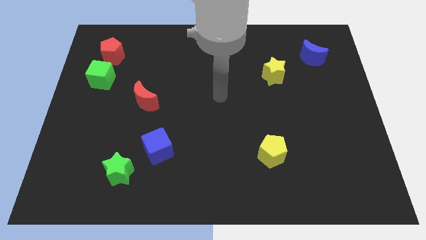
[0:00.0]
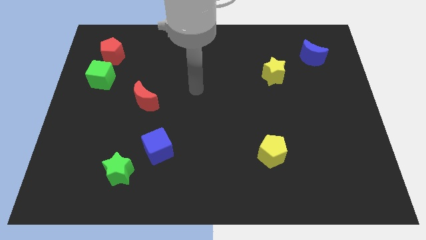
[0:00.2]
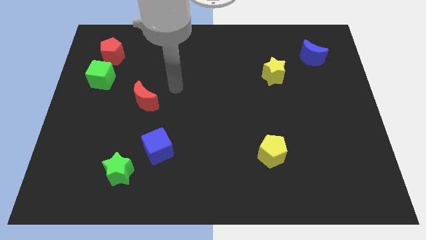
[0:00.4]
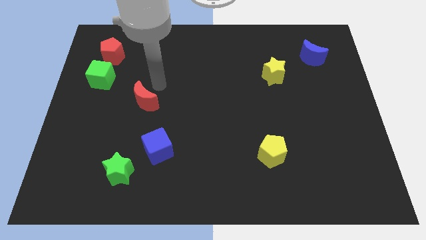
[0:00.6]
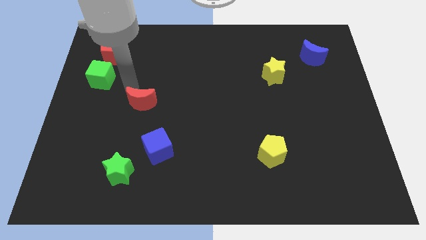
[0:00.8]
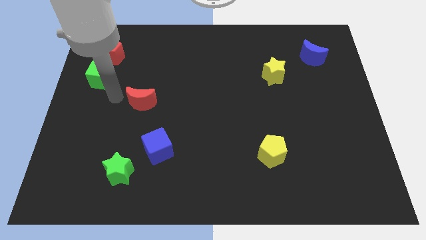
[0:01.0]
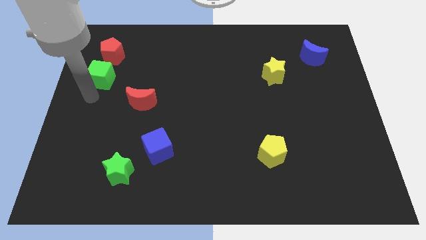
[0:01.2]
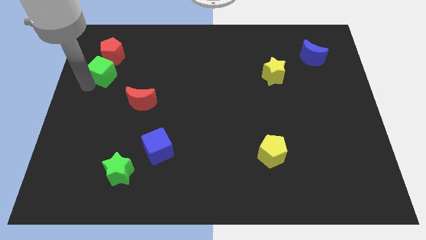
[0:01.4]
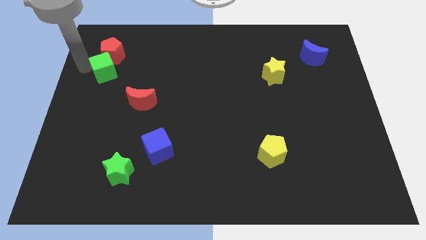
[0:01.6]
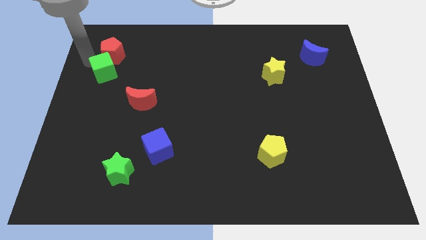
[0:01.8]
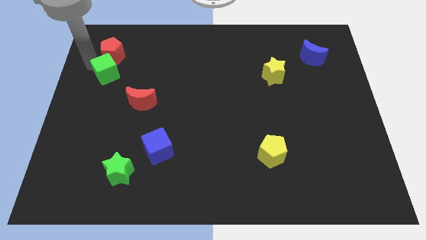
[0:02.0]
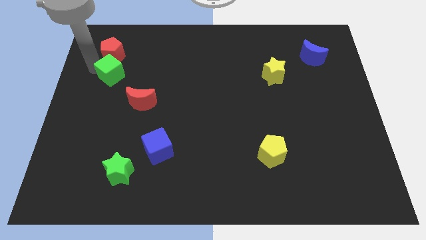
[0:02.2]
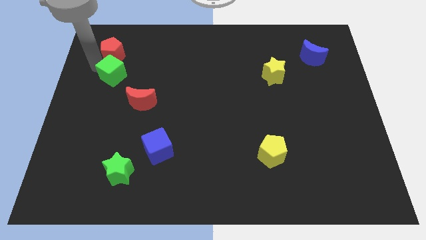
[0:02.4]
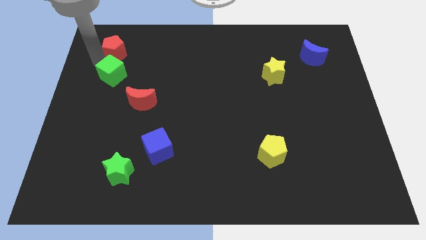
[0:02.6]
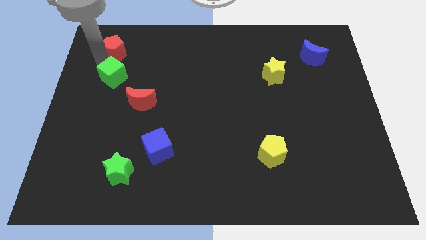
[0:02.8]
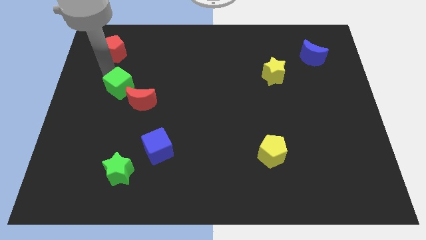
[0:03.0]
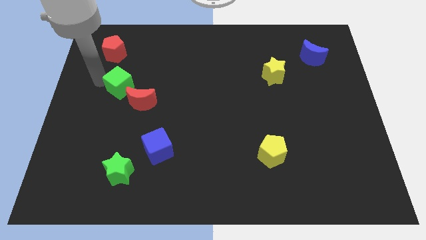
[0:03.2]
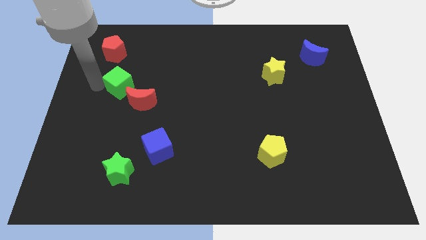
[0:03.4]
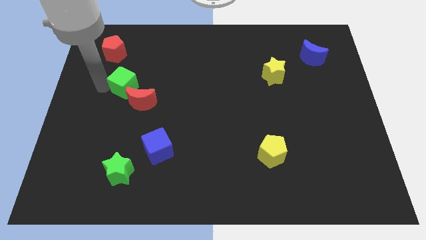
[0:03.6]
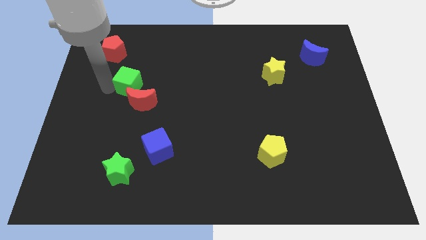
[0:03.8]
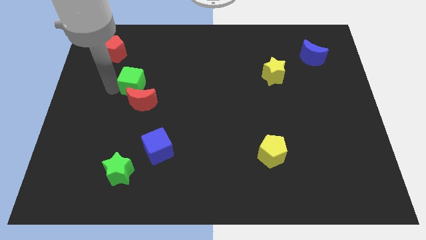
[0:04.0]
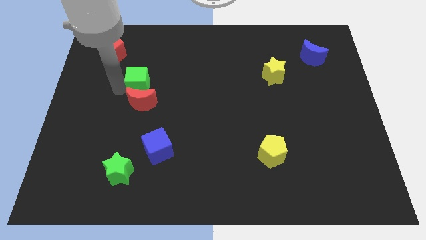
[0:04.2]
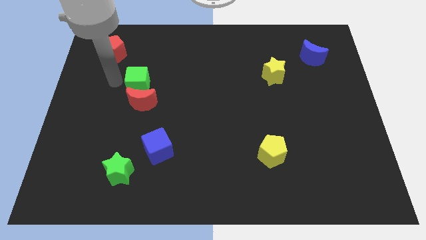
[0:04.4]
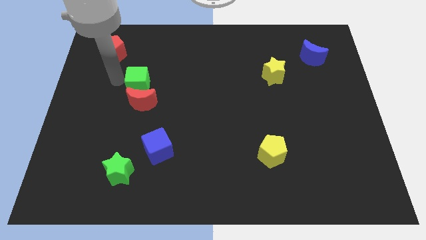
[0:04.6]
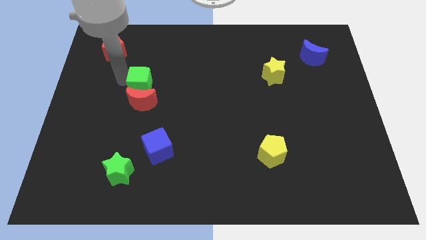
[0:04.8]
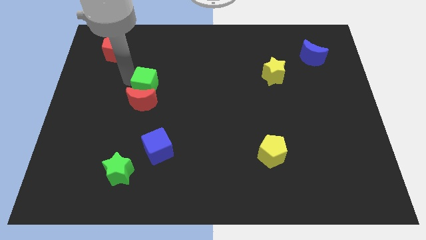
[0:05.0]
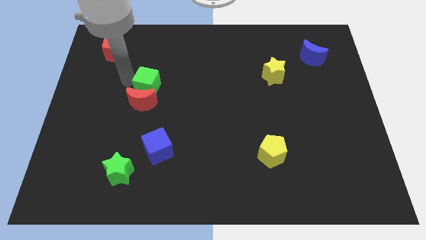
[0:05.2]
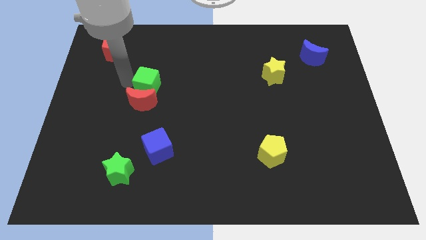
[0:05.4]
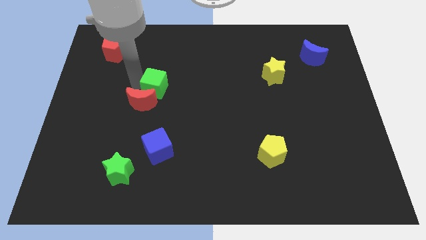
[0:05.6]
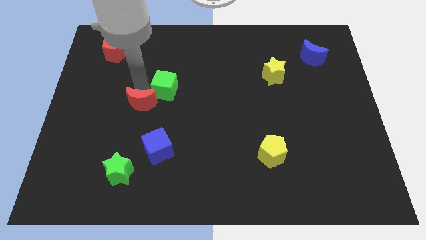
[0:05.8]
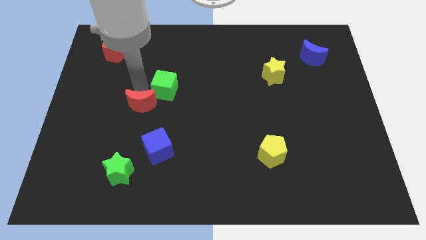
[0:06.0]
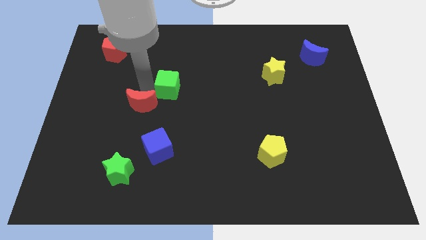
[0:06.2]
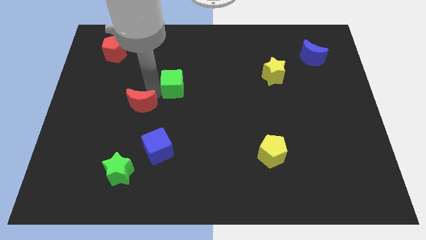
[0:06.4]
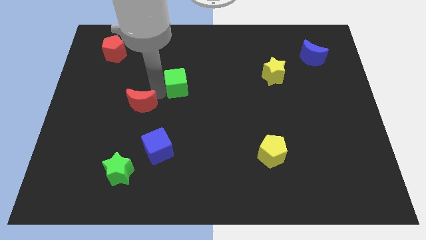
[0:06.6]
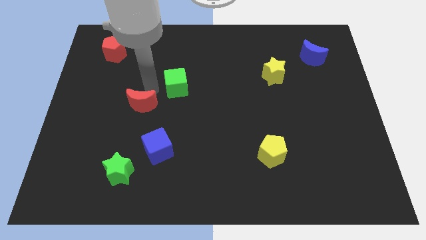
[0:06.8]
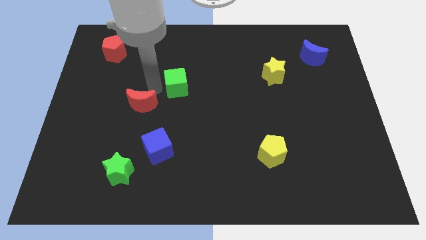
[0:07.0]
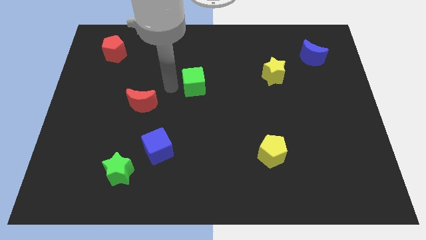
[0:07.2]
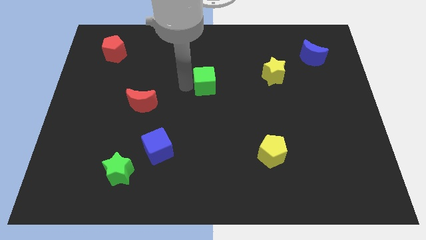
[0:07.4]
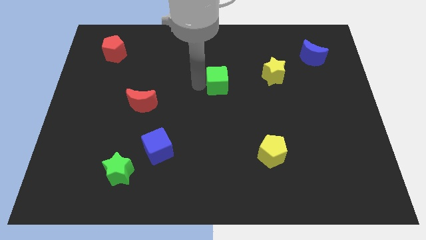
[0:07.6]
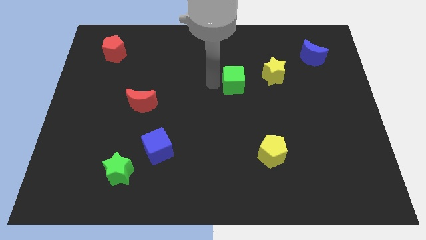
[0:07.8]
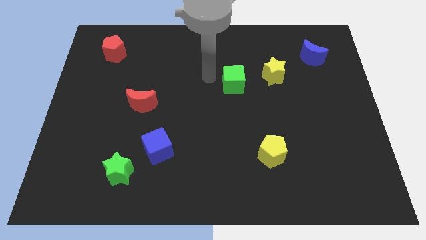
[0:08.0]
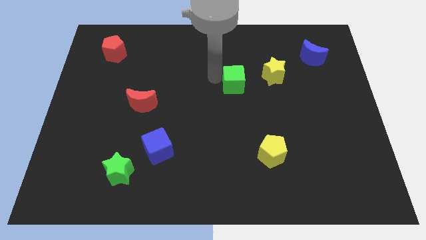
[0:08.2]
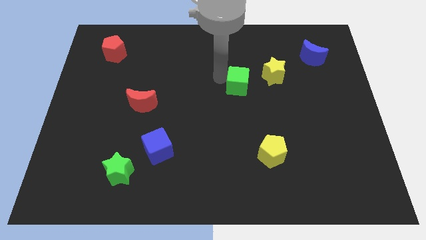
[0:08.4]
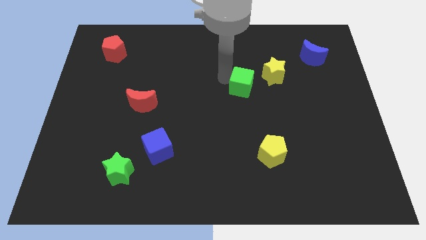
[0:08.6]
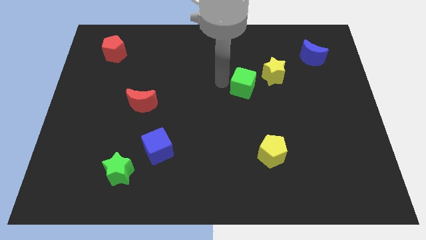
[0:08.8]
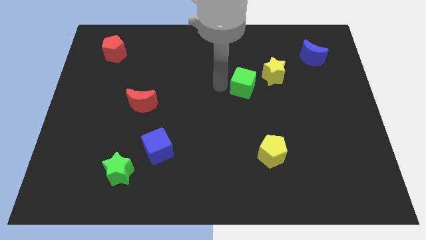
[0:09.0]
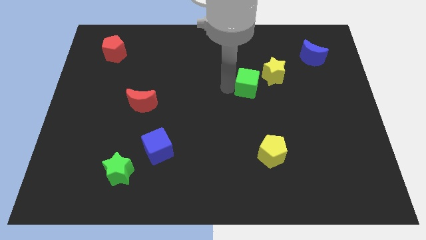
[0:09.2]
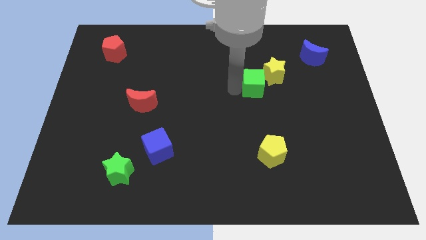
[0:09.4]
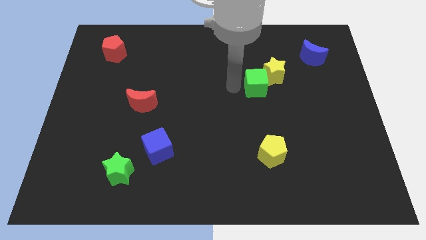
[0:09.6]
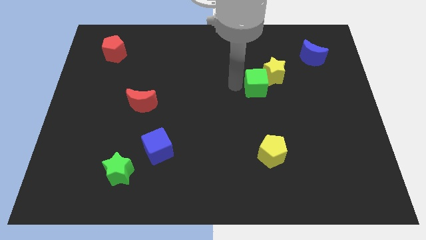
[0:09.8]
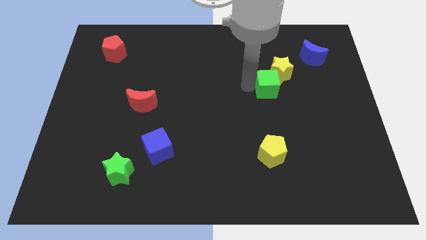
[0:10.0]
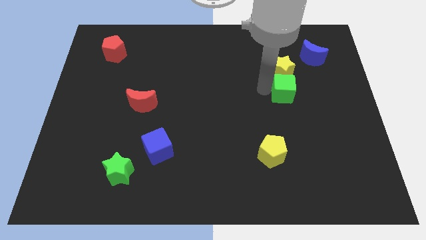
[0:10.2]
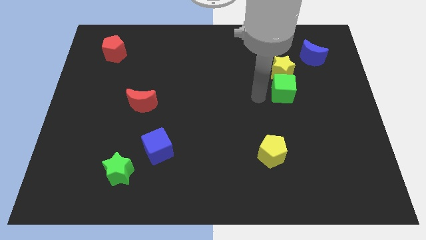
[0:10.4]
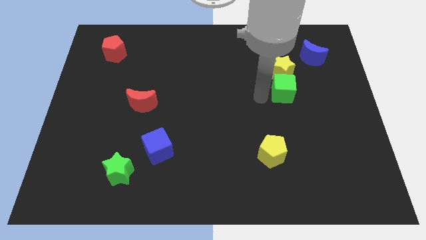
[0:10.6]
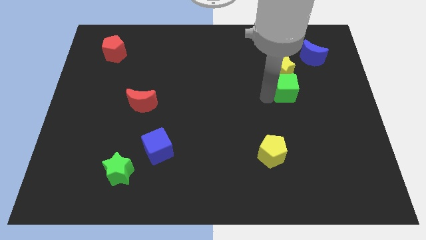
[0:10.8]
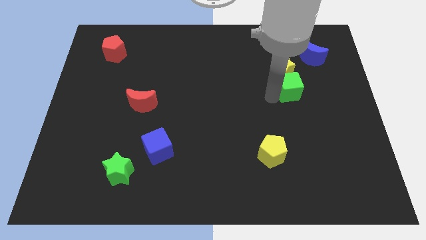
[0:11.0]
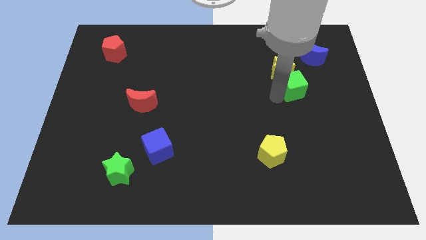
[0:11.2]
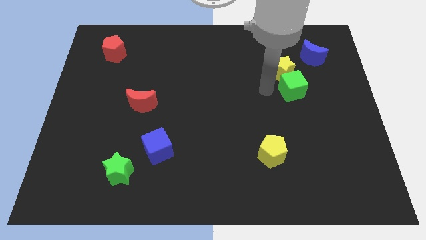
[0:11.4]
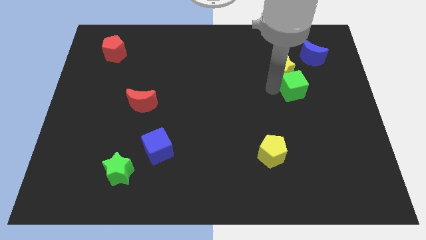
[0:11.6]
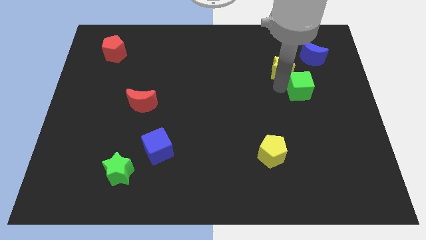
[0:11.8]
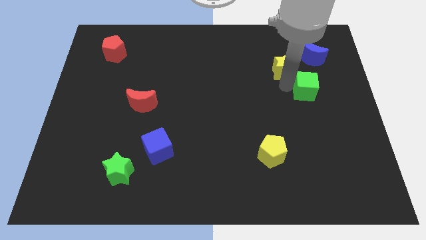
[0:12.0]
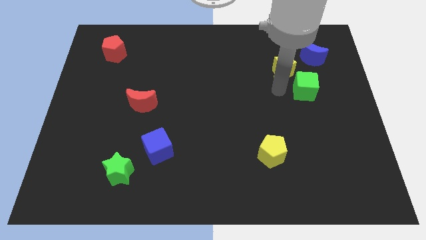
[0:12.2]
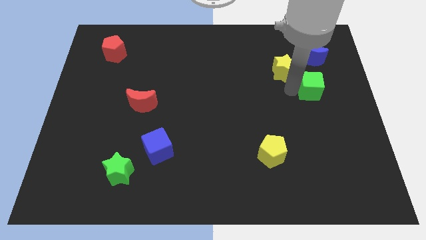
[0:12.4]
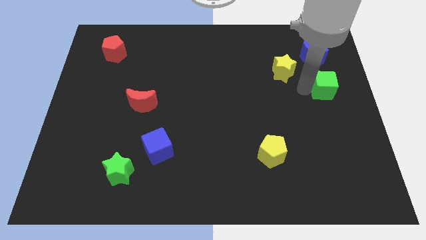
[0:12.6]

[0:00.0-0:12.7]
push the green cube to the right side of the board
